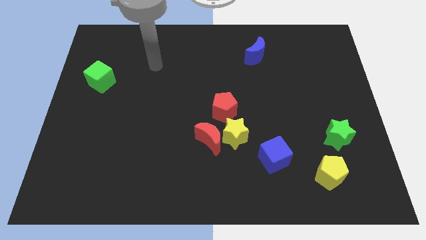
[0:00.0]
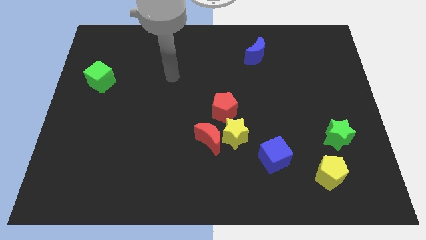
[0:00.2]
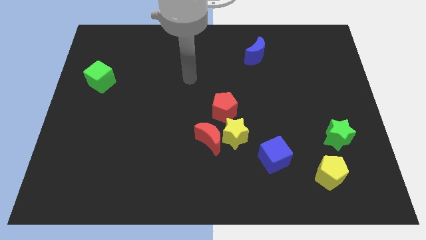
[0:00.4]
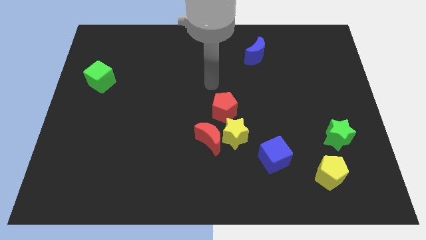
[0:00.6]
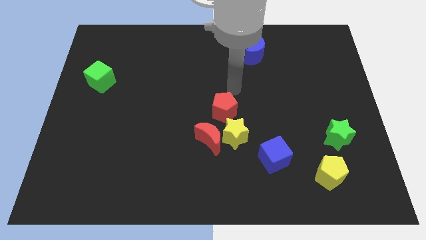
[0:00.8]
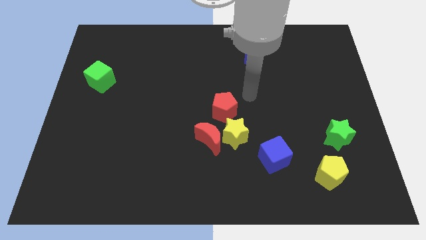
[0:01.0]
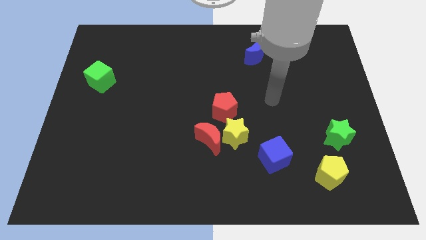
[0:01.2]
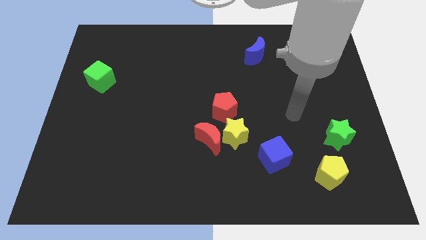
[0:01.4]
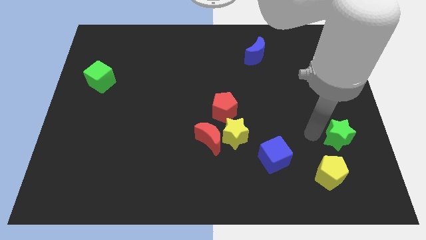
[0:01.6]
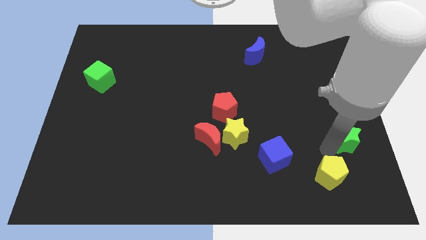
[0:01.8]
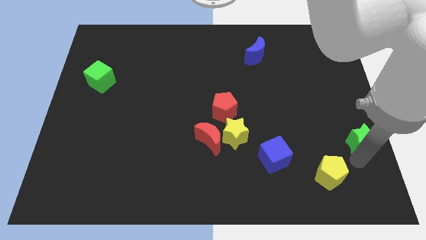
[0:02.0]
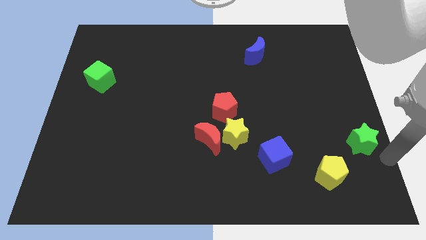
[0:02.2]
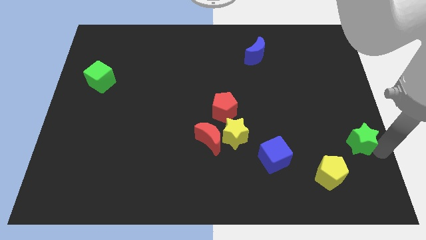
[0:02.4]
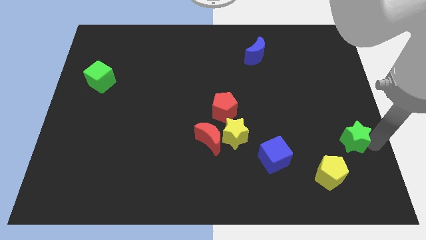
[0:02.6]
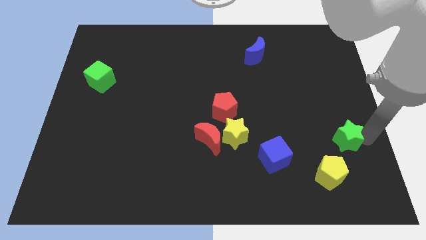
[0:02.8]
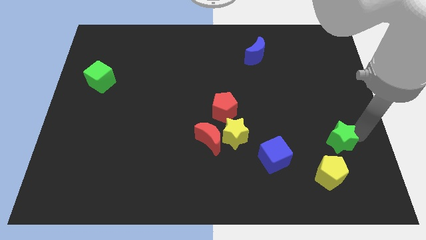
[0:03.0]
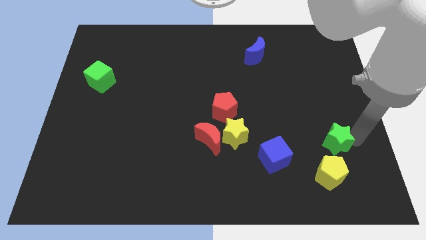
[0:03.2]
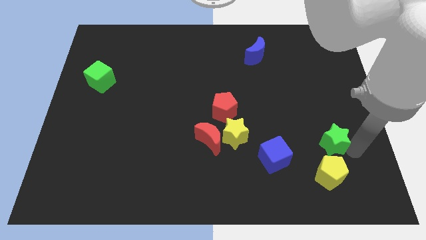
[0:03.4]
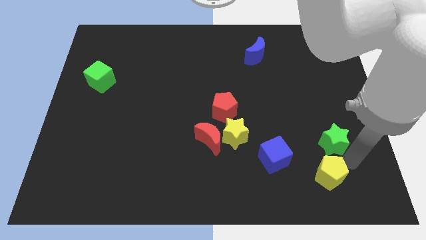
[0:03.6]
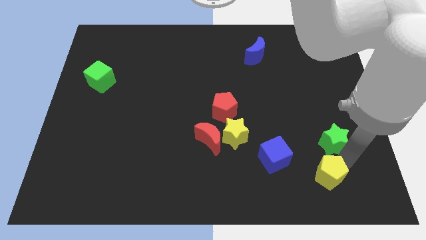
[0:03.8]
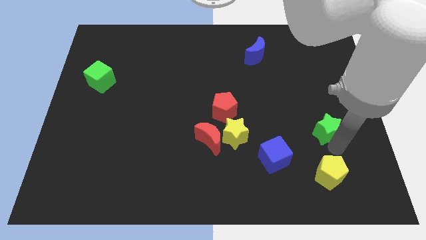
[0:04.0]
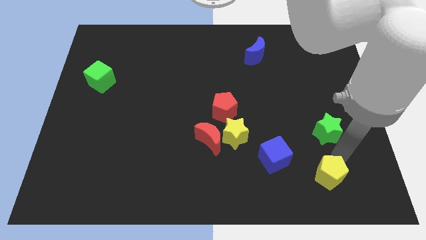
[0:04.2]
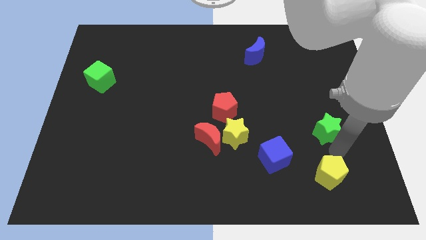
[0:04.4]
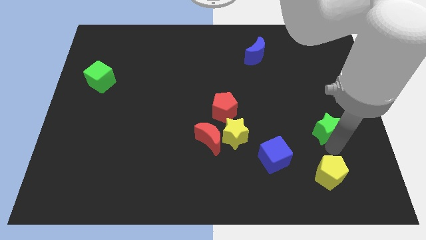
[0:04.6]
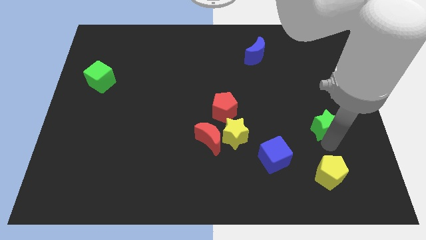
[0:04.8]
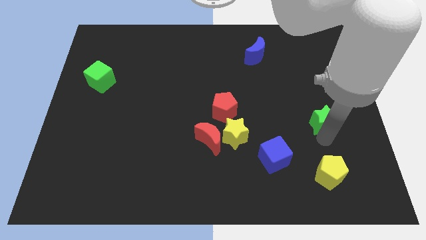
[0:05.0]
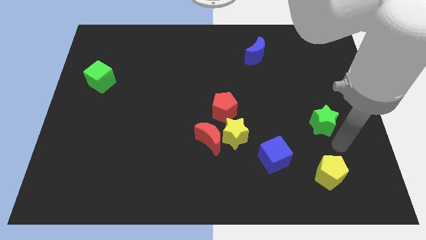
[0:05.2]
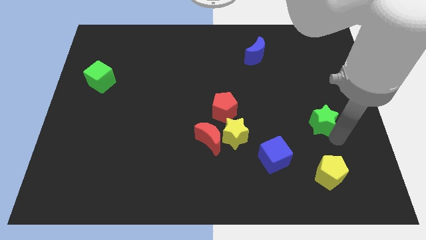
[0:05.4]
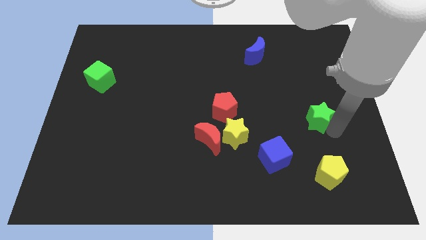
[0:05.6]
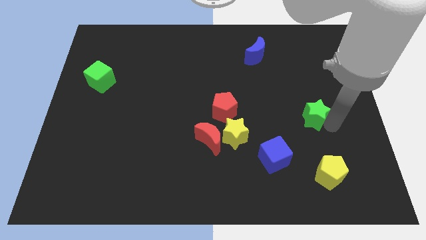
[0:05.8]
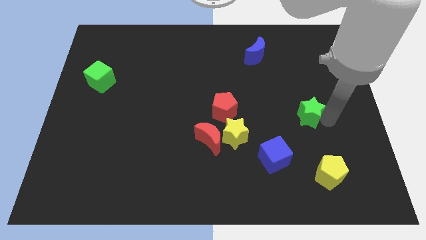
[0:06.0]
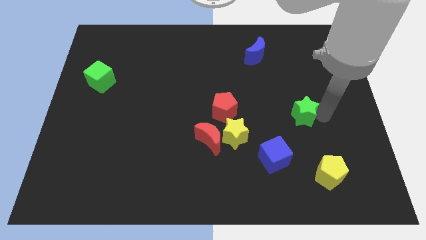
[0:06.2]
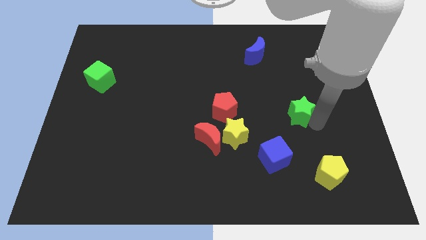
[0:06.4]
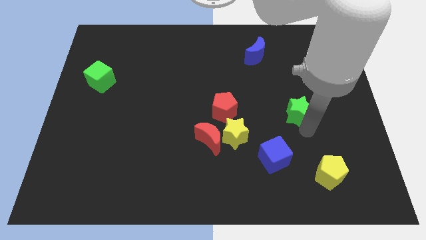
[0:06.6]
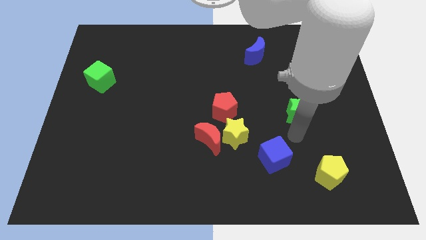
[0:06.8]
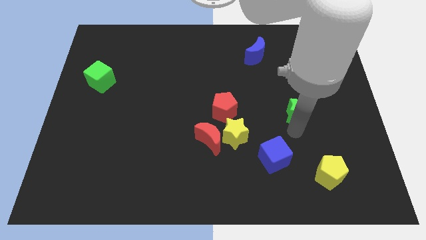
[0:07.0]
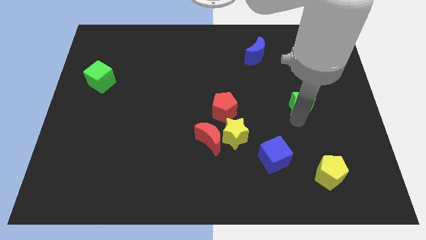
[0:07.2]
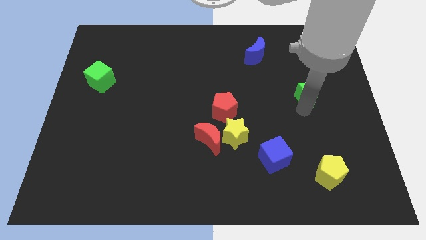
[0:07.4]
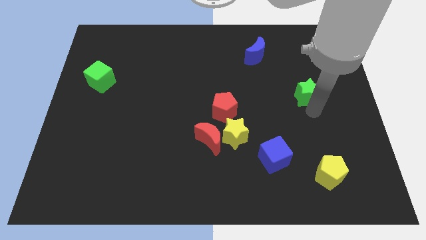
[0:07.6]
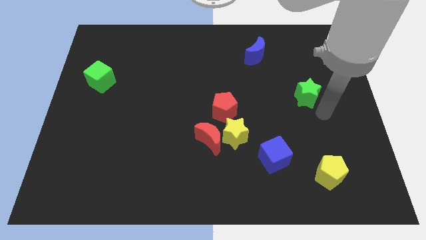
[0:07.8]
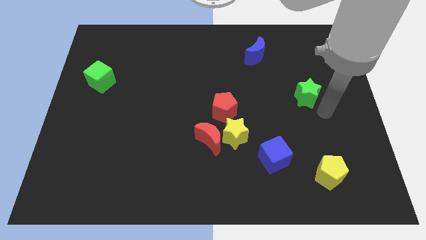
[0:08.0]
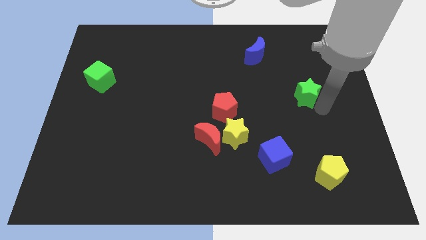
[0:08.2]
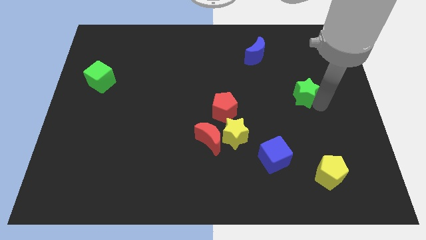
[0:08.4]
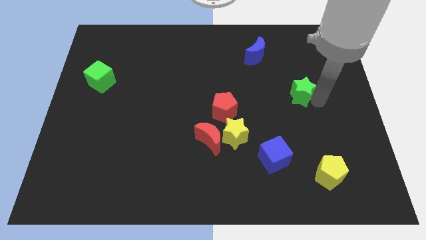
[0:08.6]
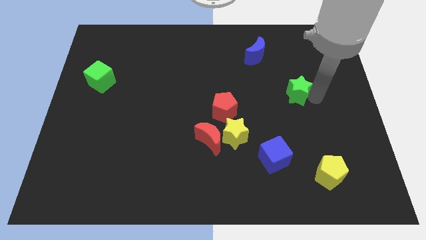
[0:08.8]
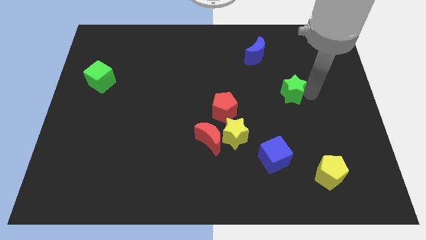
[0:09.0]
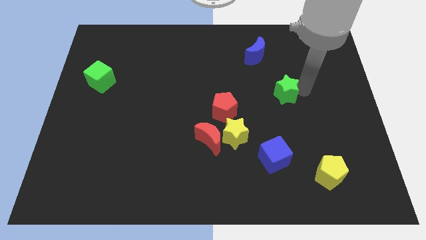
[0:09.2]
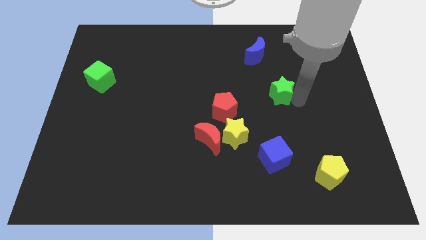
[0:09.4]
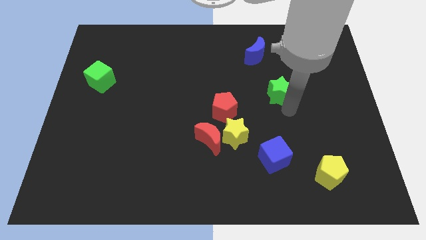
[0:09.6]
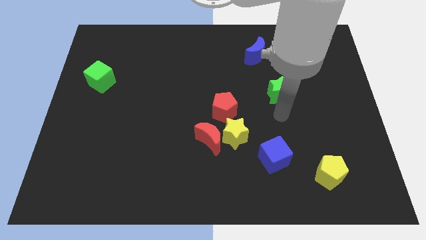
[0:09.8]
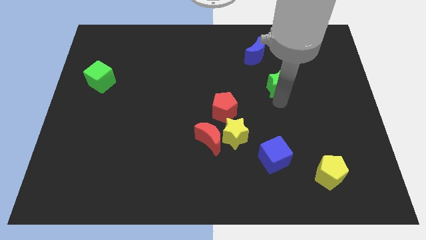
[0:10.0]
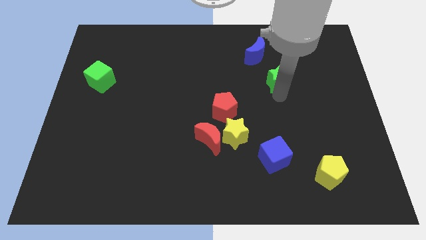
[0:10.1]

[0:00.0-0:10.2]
put the green star to the bottom right side of the blue moon

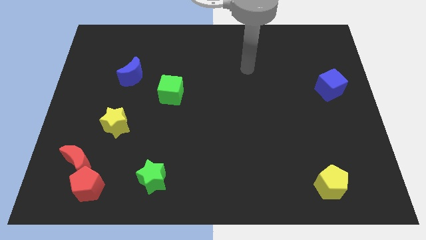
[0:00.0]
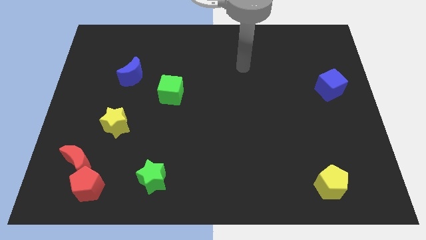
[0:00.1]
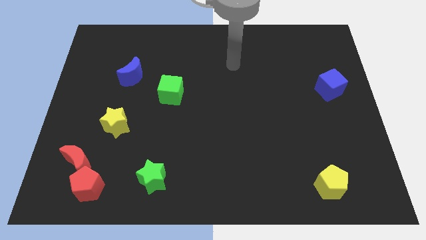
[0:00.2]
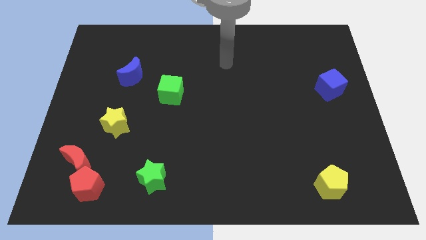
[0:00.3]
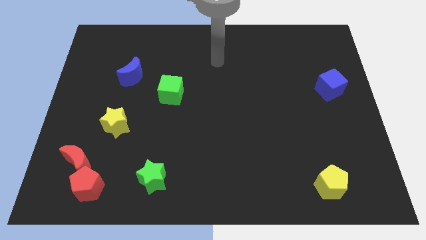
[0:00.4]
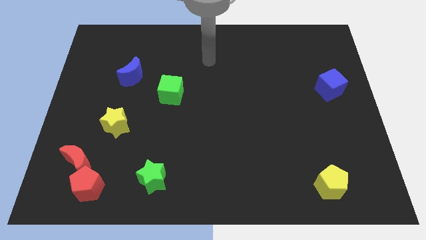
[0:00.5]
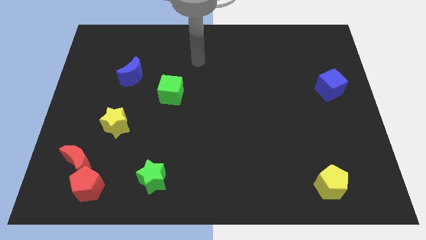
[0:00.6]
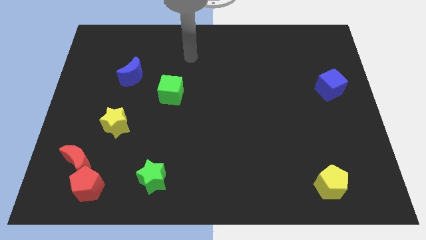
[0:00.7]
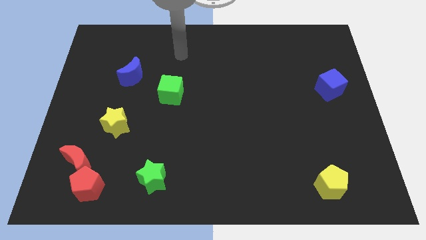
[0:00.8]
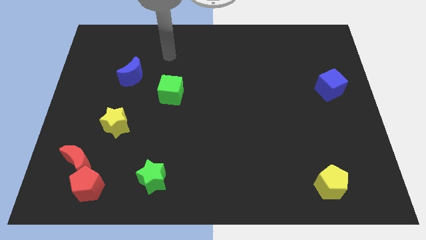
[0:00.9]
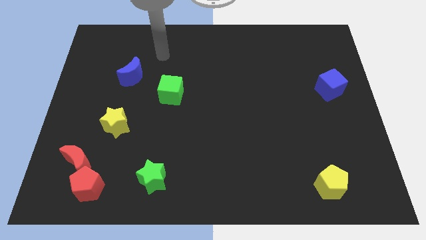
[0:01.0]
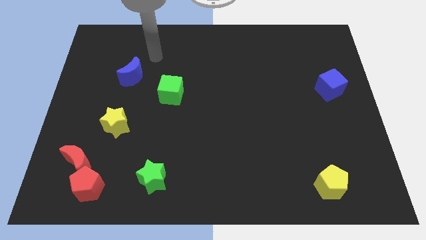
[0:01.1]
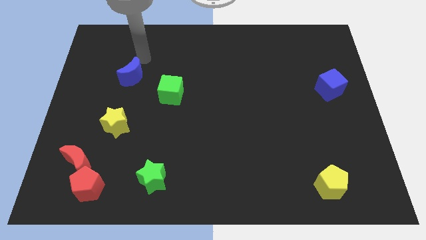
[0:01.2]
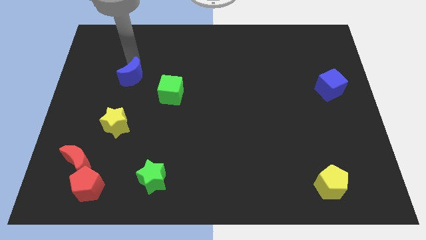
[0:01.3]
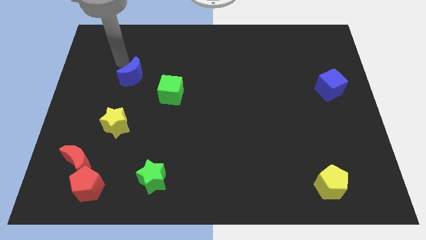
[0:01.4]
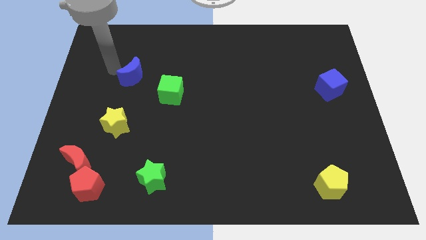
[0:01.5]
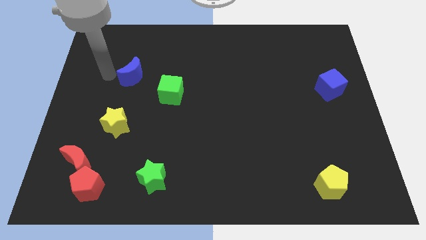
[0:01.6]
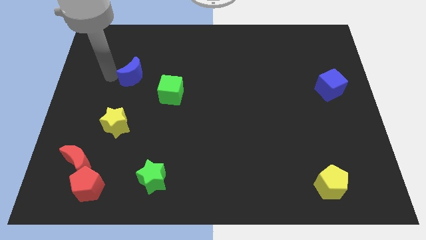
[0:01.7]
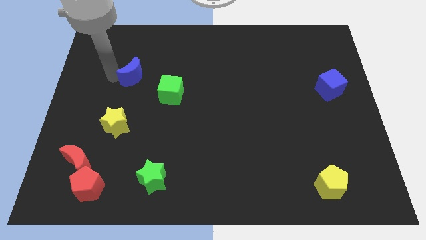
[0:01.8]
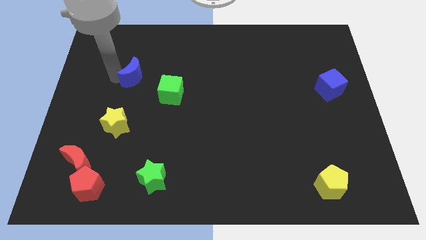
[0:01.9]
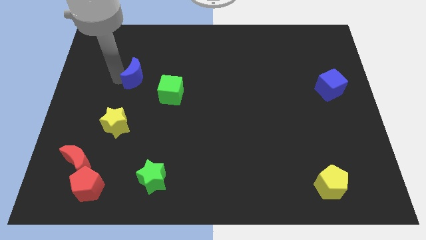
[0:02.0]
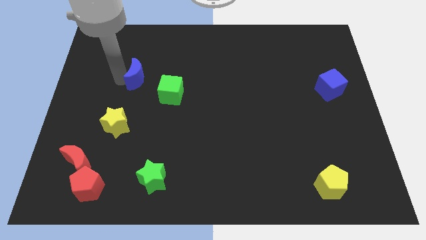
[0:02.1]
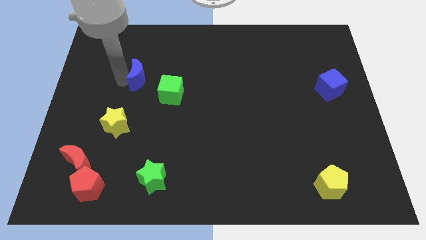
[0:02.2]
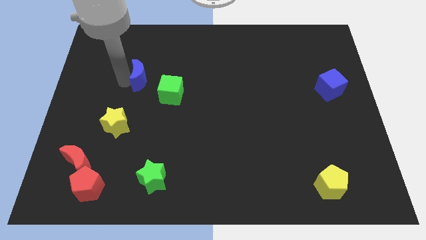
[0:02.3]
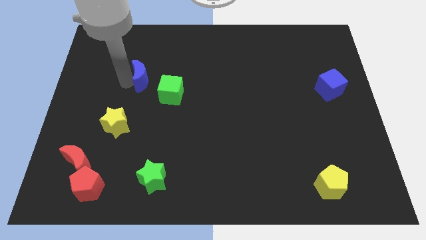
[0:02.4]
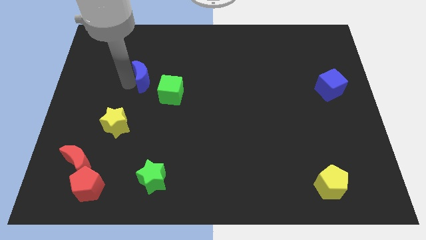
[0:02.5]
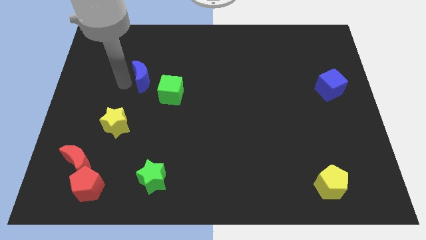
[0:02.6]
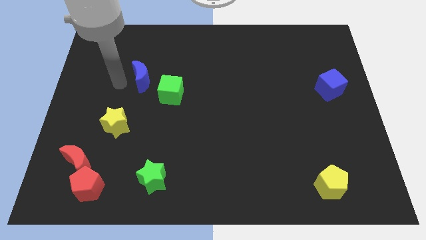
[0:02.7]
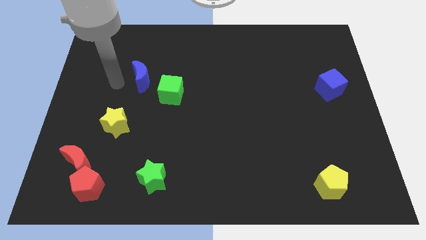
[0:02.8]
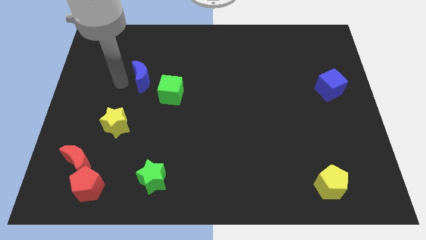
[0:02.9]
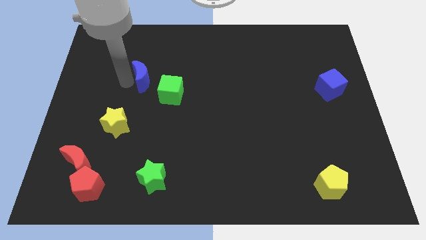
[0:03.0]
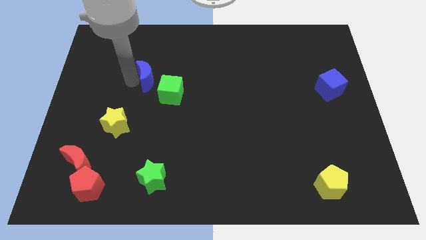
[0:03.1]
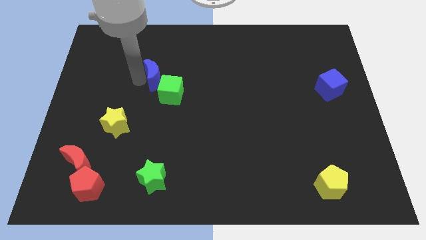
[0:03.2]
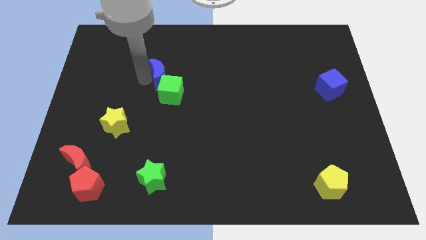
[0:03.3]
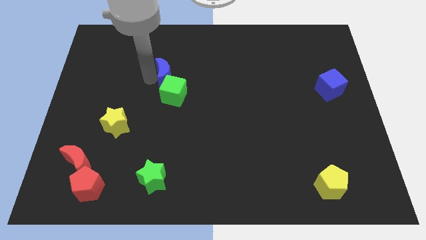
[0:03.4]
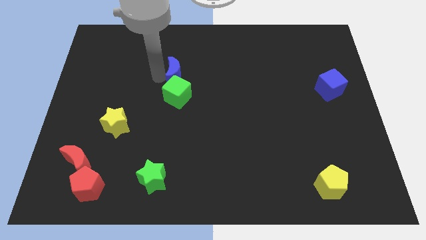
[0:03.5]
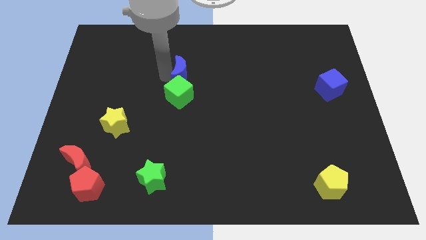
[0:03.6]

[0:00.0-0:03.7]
put the blue moon to the top right side of the green cube
